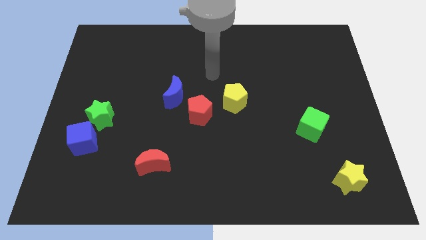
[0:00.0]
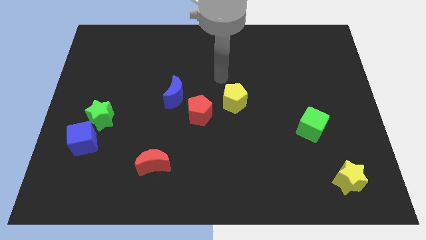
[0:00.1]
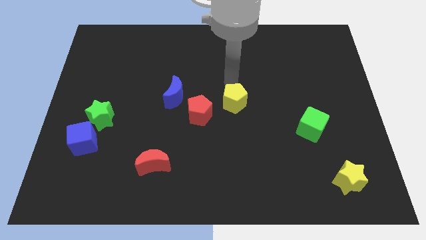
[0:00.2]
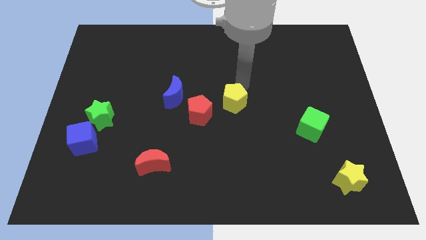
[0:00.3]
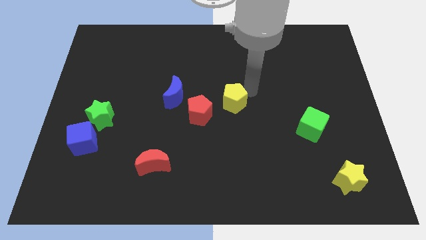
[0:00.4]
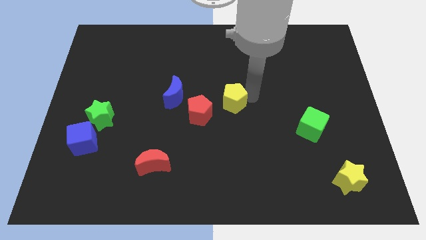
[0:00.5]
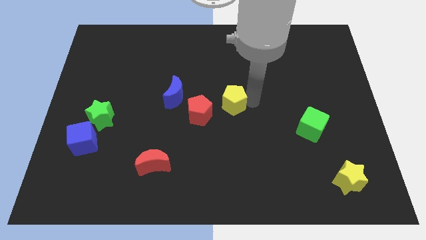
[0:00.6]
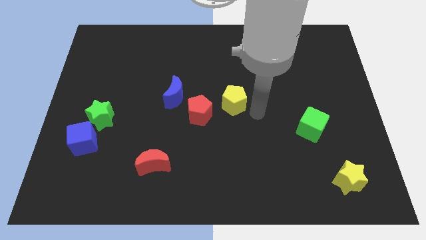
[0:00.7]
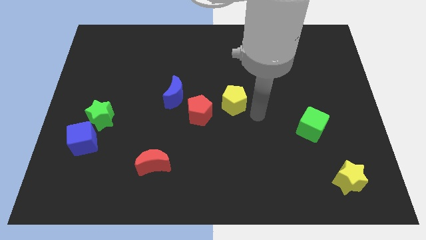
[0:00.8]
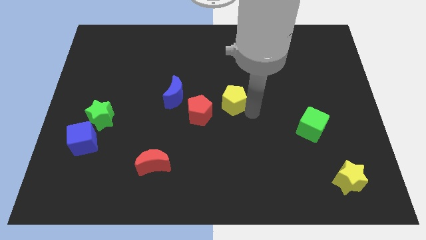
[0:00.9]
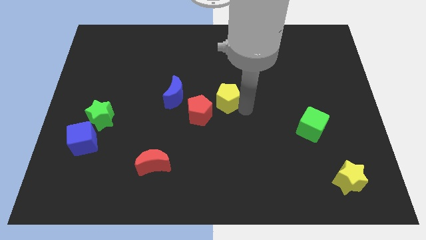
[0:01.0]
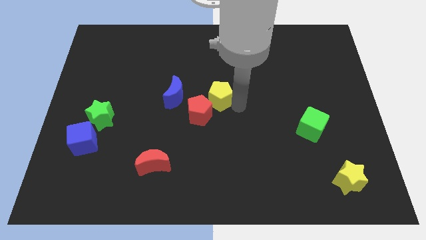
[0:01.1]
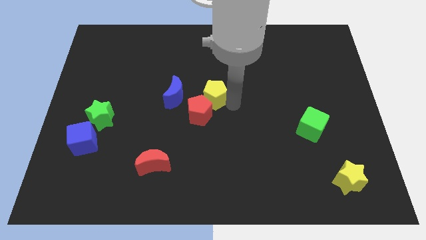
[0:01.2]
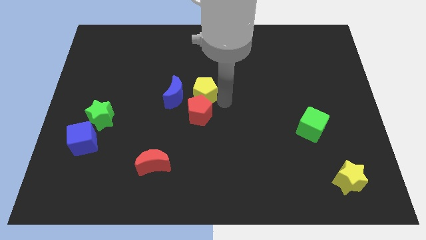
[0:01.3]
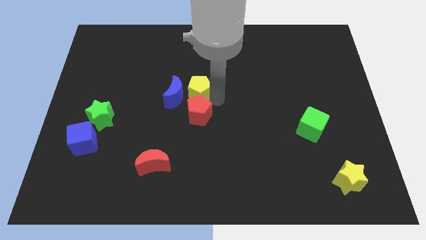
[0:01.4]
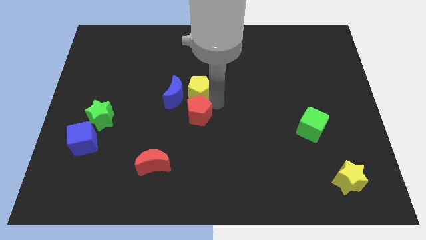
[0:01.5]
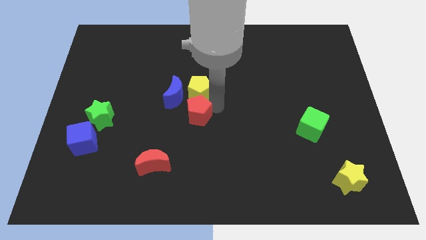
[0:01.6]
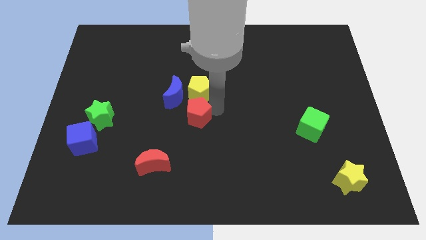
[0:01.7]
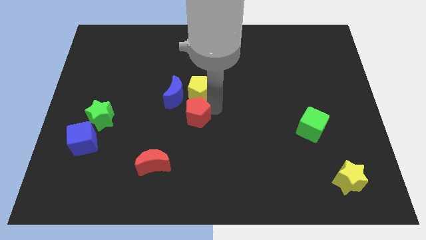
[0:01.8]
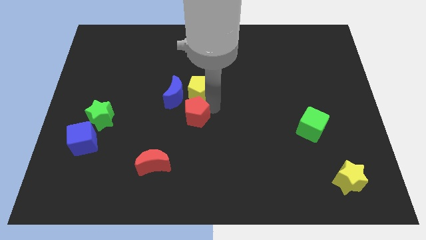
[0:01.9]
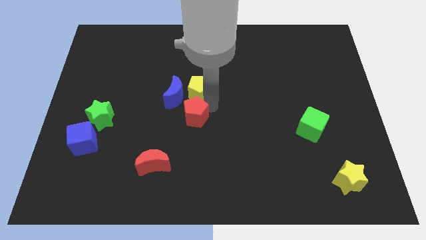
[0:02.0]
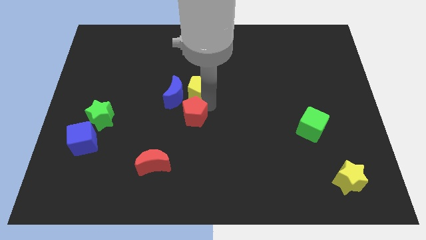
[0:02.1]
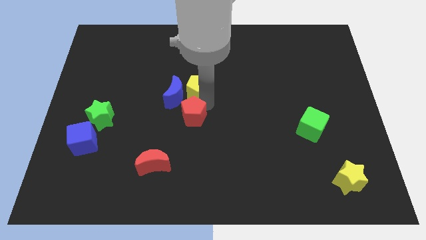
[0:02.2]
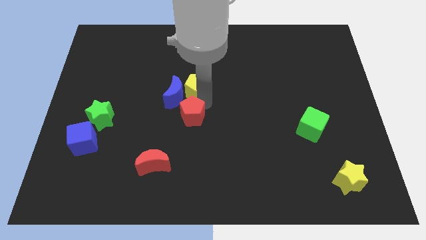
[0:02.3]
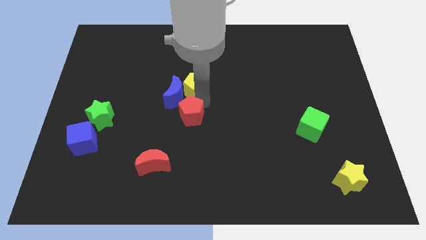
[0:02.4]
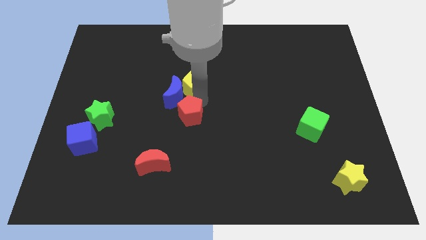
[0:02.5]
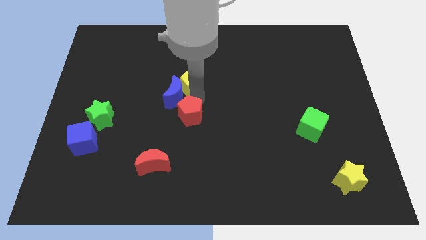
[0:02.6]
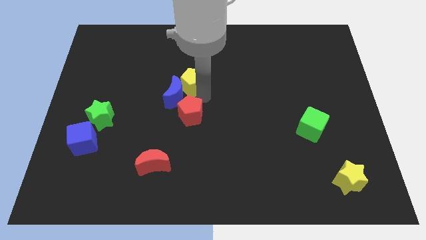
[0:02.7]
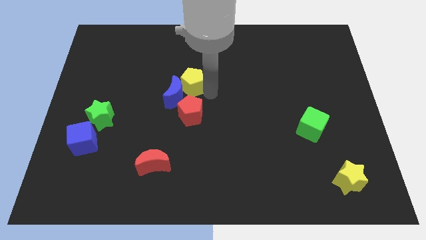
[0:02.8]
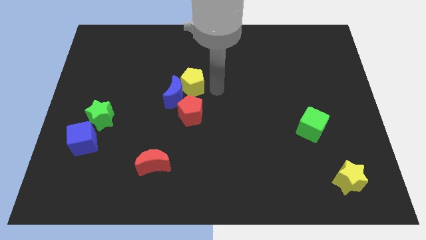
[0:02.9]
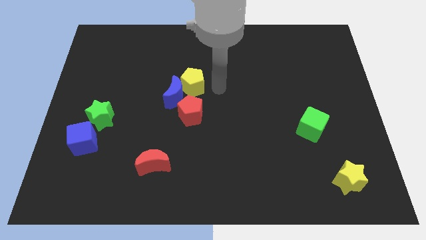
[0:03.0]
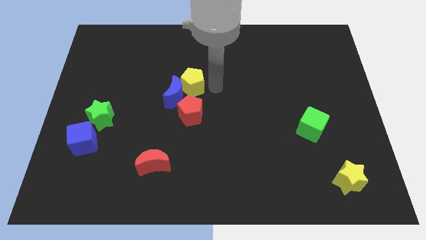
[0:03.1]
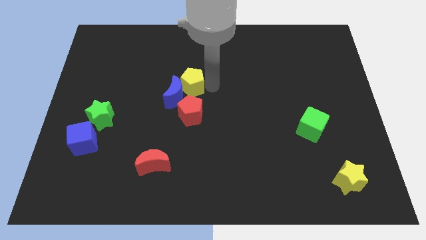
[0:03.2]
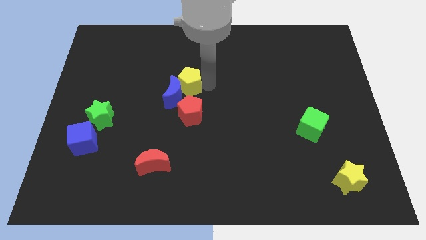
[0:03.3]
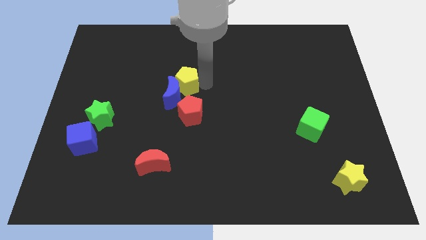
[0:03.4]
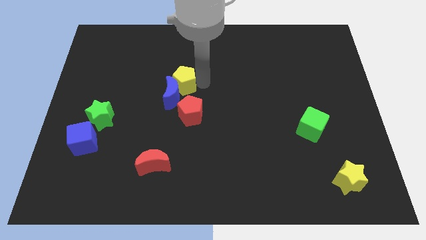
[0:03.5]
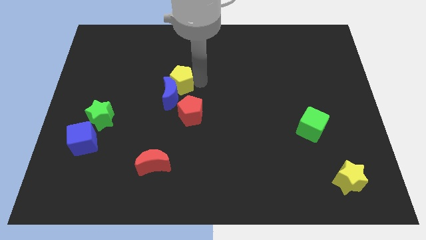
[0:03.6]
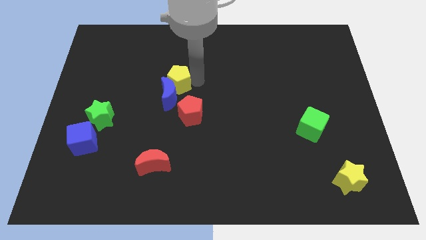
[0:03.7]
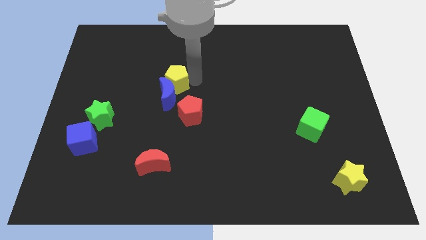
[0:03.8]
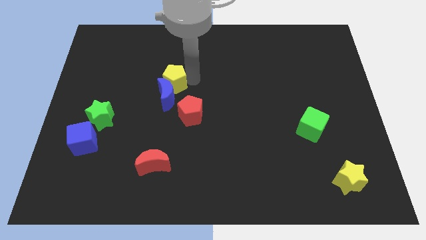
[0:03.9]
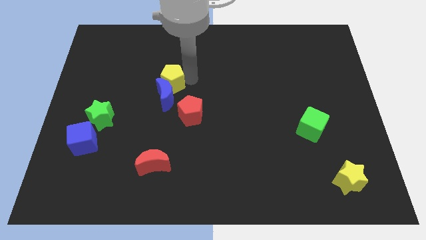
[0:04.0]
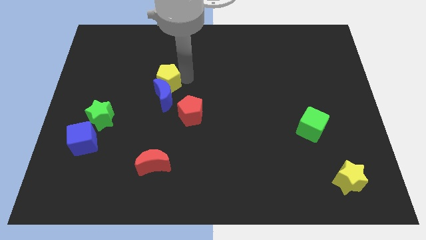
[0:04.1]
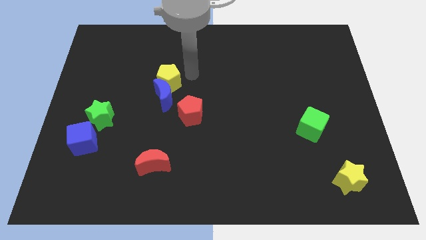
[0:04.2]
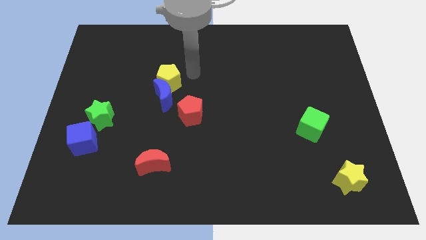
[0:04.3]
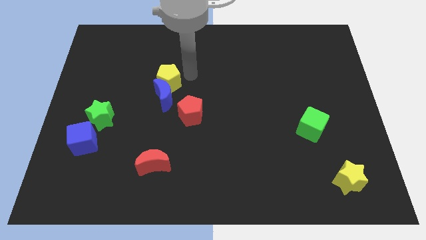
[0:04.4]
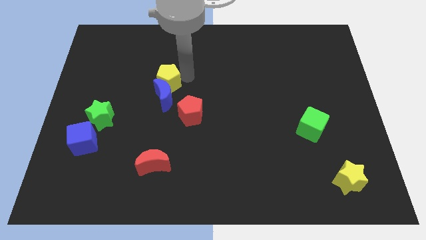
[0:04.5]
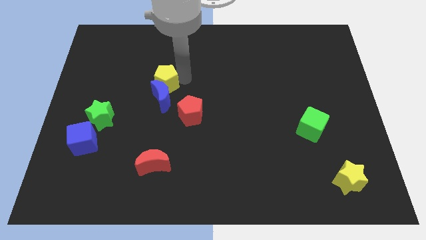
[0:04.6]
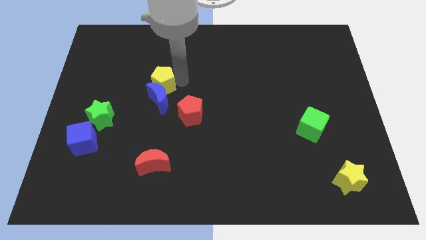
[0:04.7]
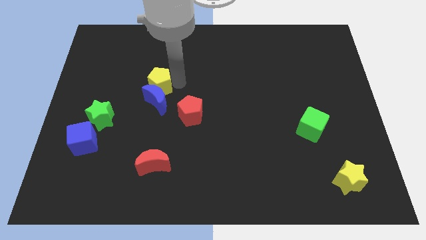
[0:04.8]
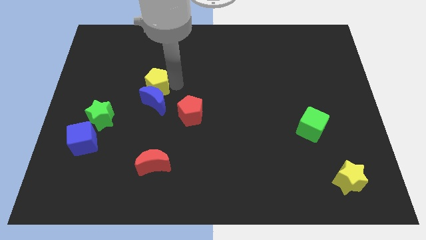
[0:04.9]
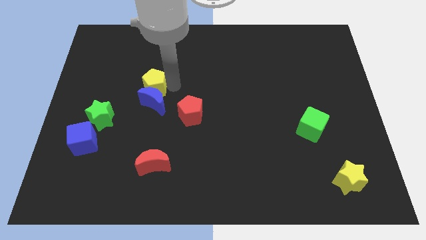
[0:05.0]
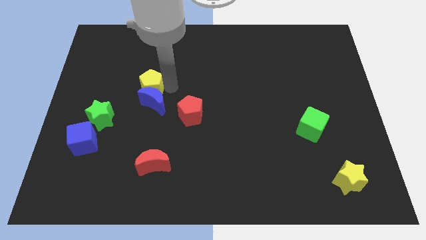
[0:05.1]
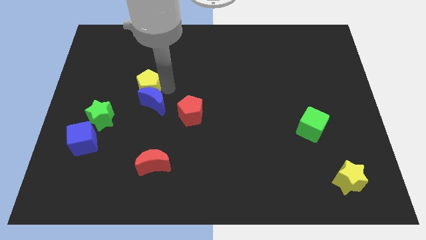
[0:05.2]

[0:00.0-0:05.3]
slide the yellow pentagon left

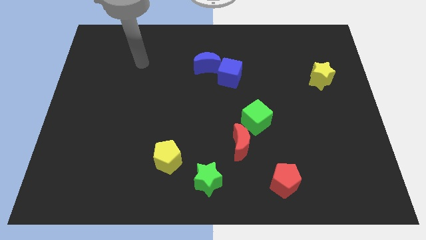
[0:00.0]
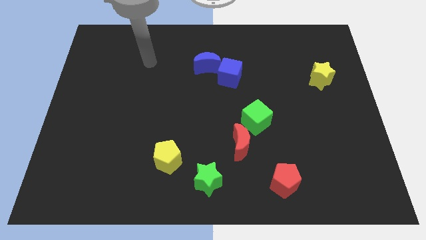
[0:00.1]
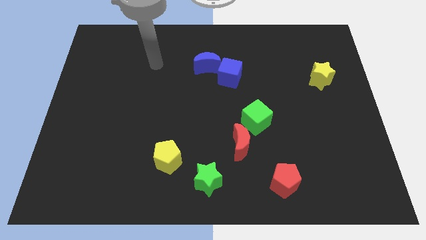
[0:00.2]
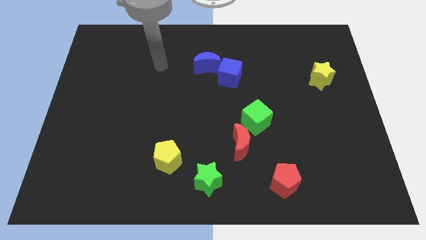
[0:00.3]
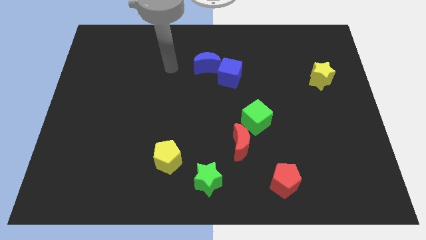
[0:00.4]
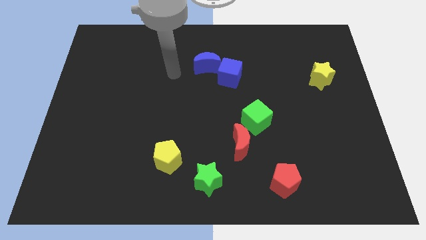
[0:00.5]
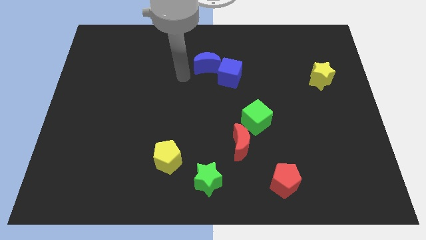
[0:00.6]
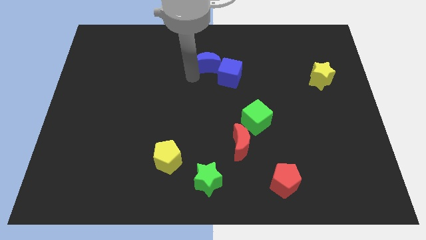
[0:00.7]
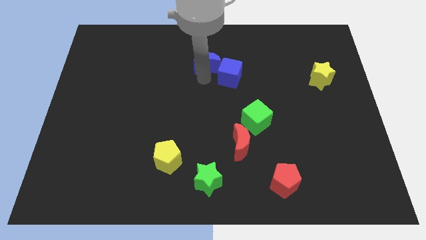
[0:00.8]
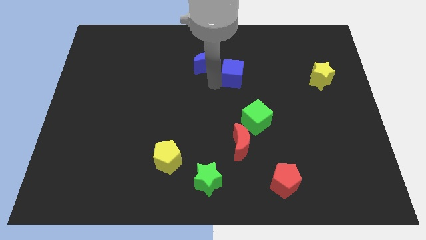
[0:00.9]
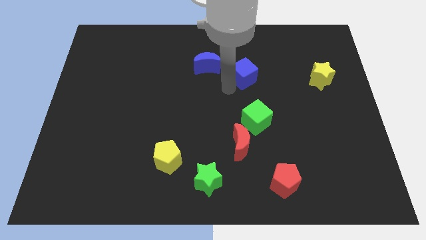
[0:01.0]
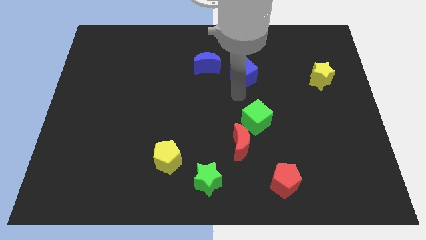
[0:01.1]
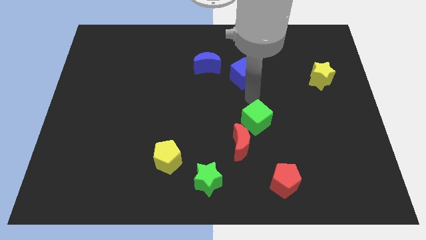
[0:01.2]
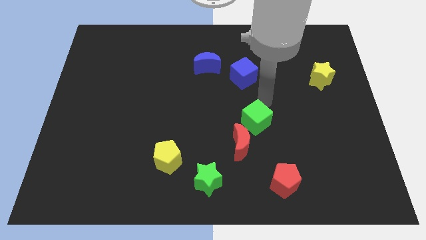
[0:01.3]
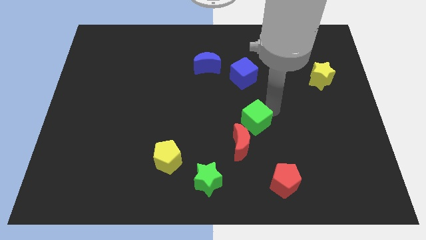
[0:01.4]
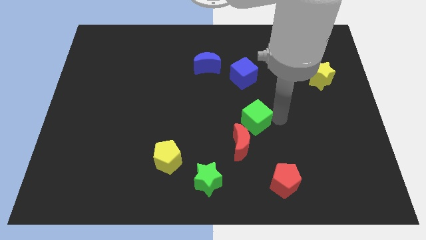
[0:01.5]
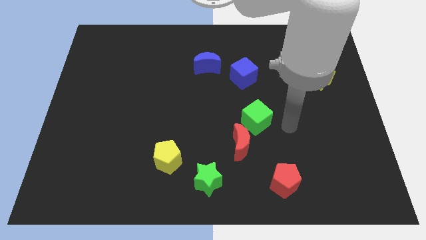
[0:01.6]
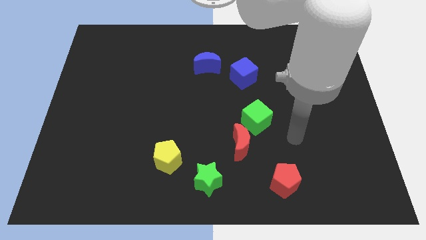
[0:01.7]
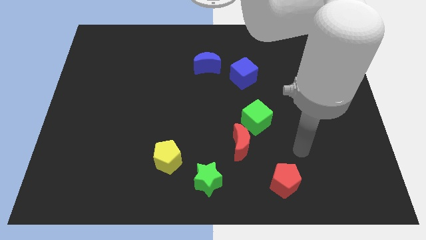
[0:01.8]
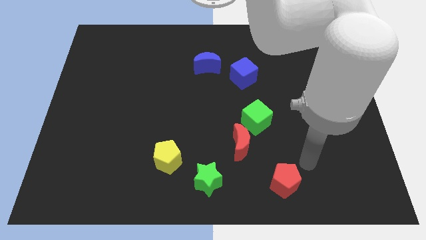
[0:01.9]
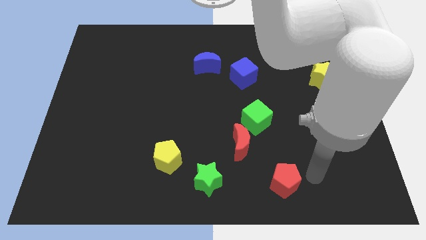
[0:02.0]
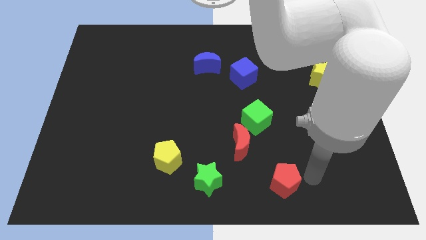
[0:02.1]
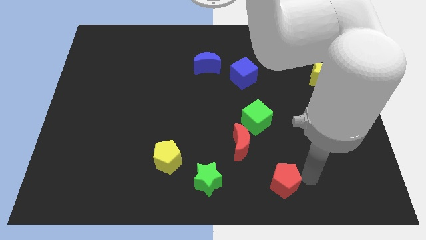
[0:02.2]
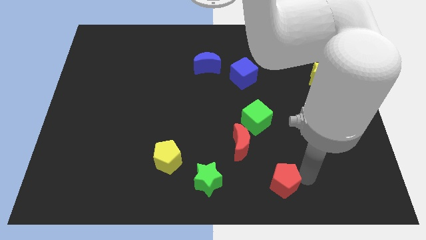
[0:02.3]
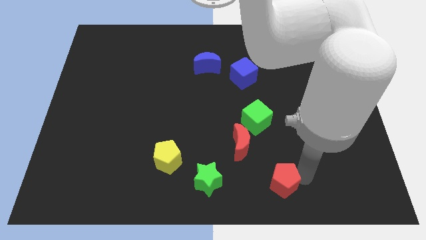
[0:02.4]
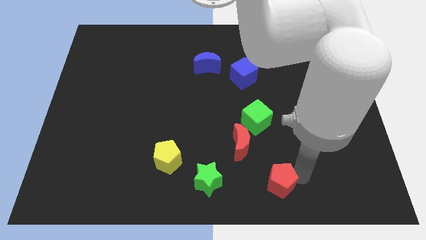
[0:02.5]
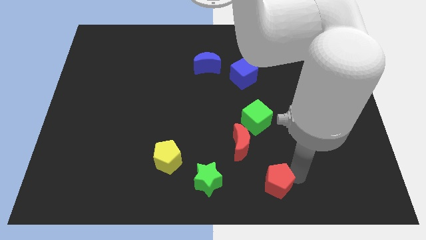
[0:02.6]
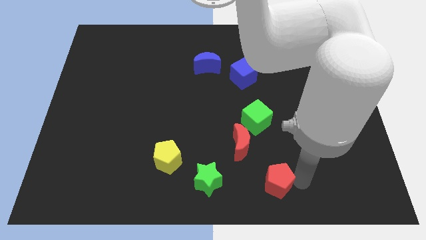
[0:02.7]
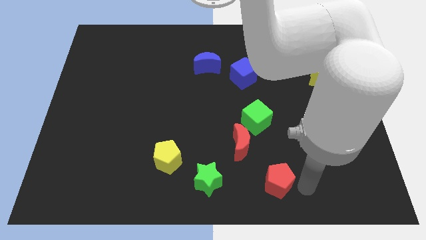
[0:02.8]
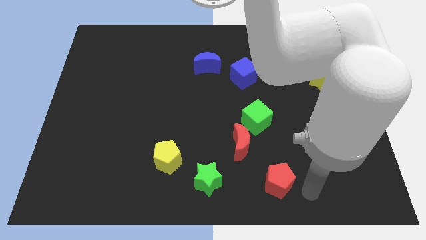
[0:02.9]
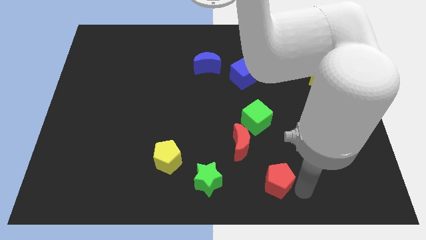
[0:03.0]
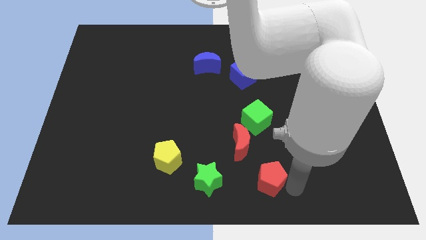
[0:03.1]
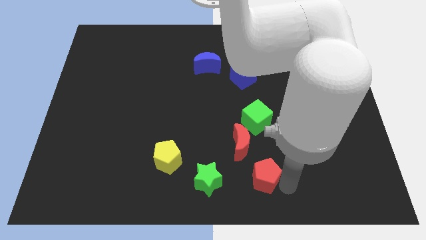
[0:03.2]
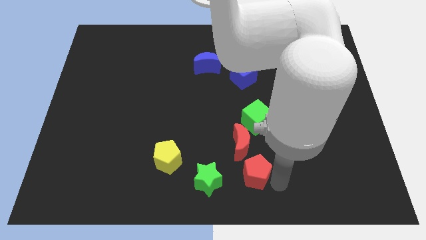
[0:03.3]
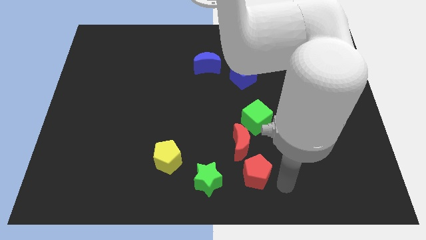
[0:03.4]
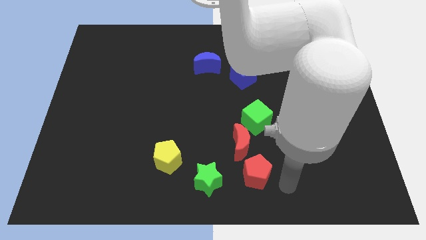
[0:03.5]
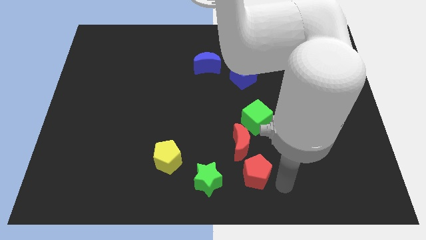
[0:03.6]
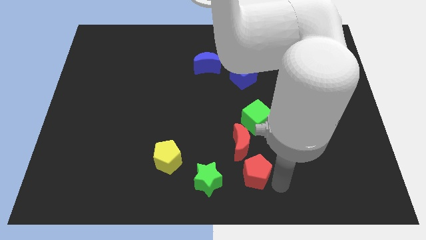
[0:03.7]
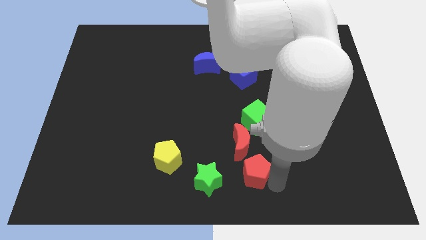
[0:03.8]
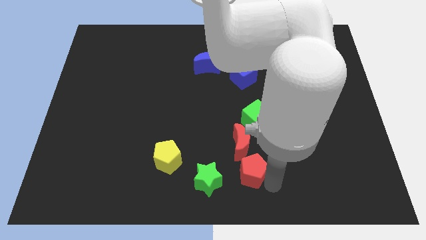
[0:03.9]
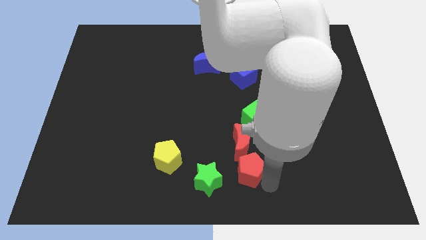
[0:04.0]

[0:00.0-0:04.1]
slide the red pentagon a little bit left
